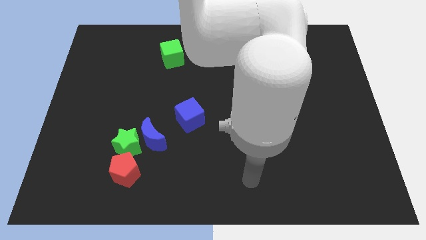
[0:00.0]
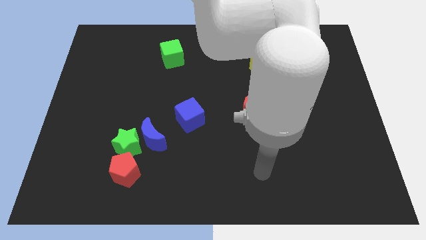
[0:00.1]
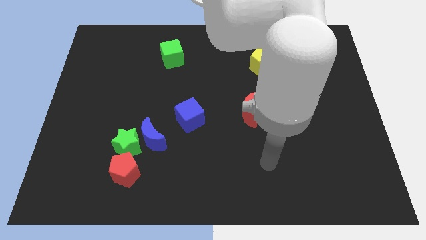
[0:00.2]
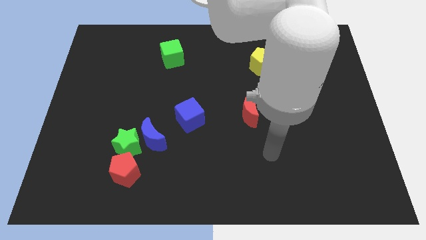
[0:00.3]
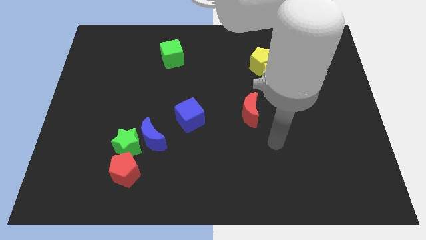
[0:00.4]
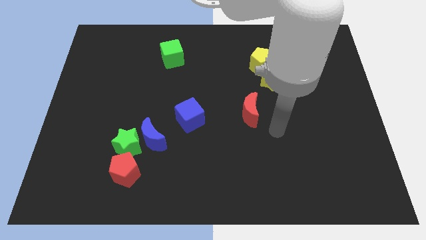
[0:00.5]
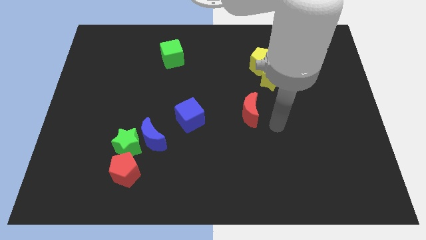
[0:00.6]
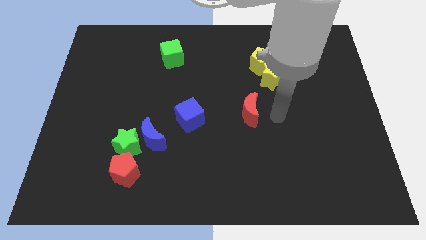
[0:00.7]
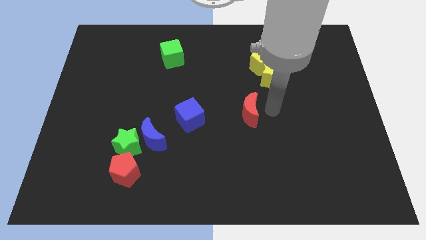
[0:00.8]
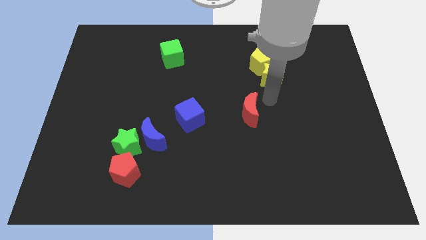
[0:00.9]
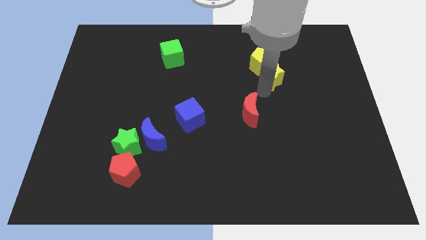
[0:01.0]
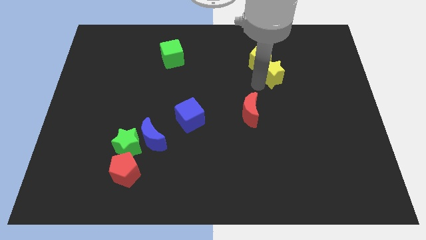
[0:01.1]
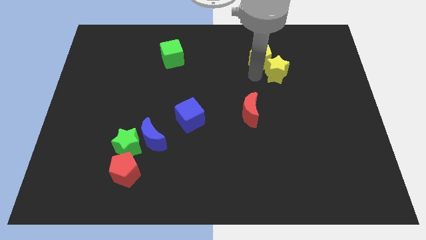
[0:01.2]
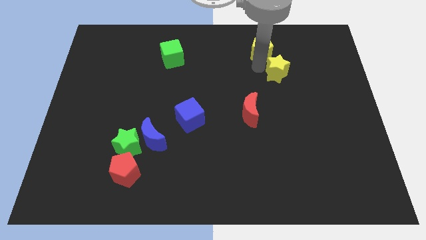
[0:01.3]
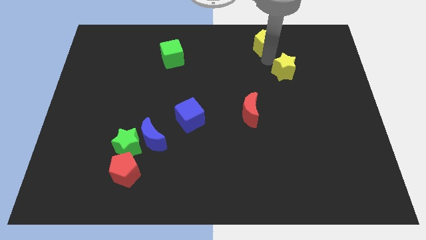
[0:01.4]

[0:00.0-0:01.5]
pull the yellow star apart from the yellow pentagon

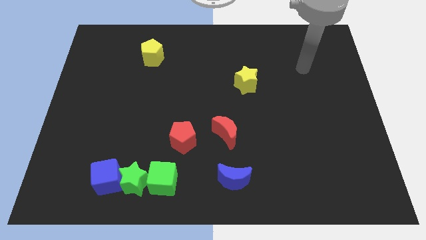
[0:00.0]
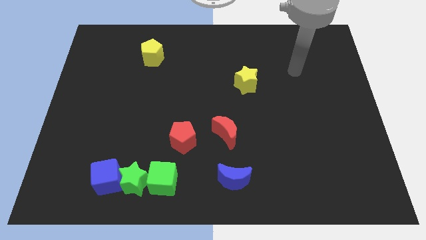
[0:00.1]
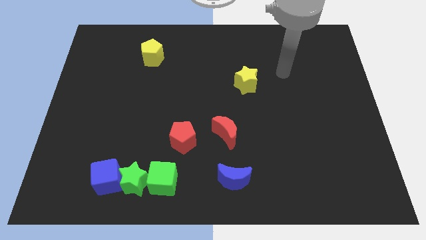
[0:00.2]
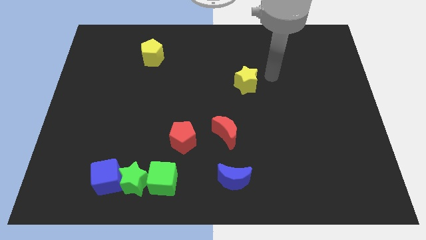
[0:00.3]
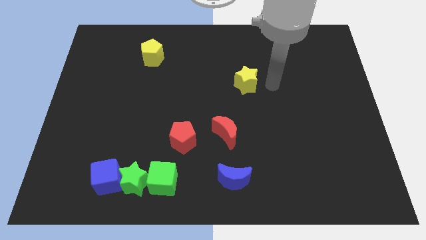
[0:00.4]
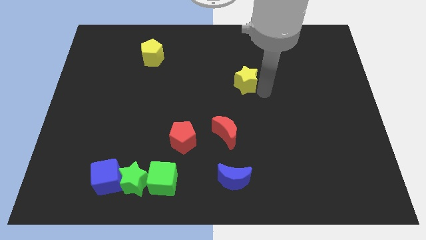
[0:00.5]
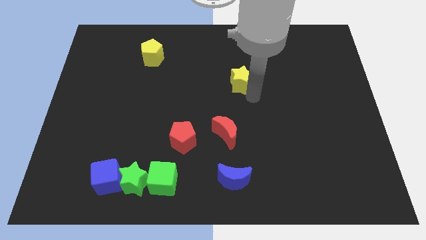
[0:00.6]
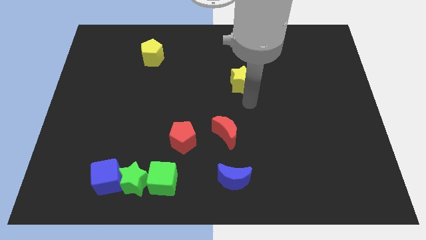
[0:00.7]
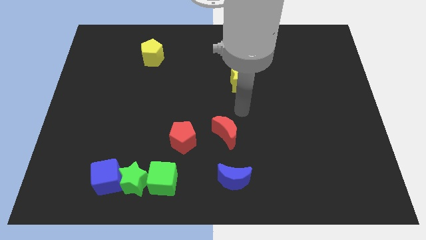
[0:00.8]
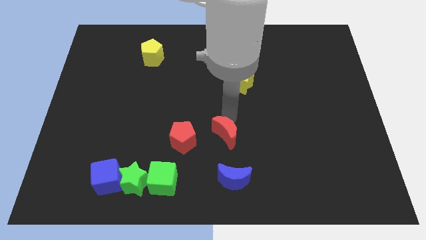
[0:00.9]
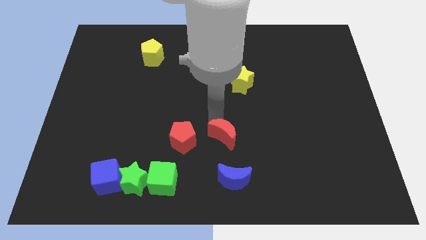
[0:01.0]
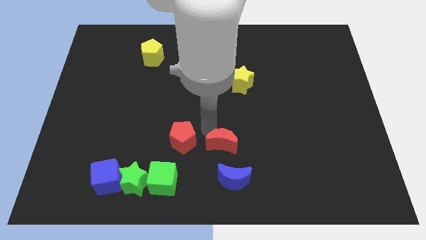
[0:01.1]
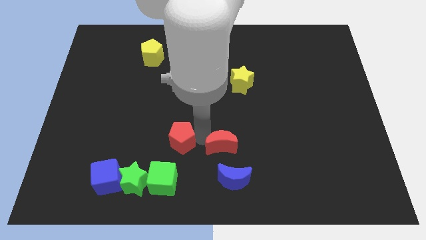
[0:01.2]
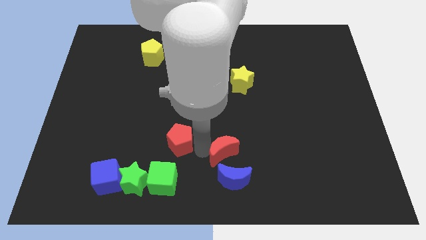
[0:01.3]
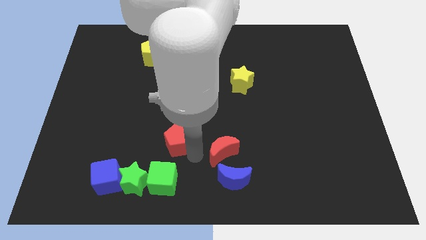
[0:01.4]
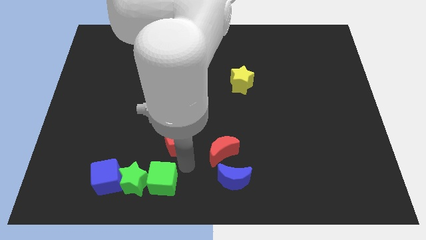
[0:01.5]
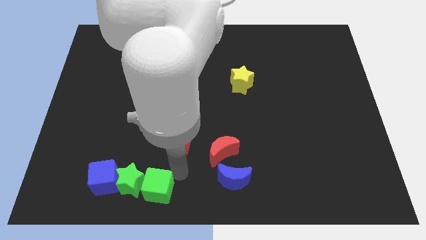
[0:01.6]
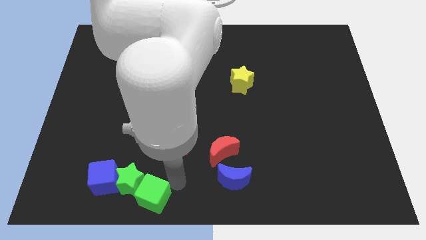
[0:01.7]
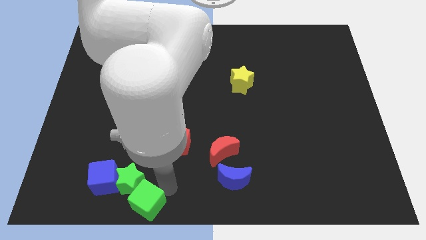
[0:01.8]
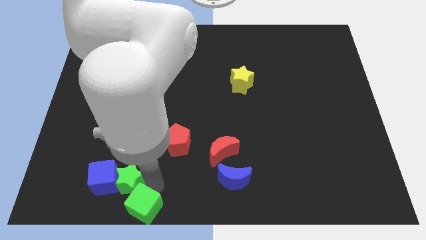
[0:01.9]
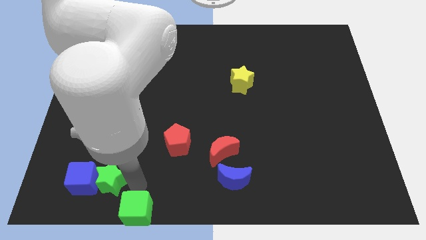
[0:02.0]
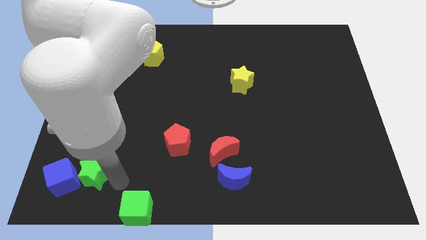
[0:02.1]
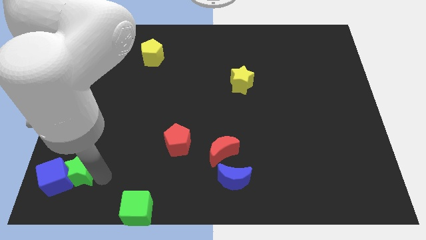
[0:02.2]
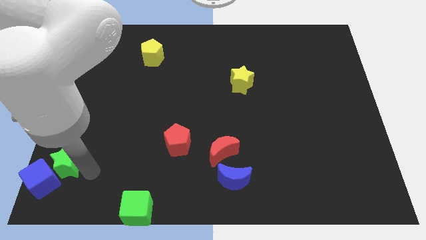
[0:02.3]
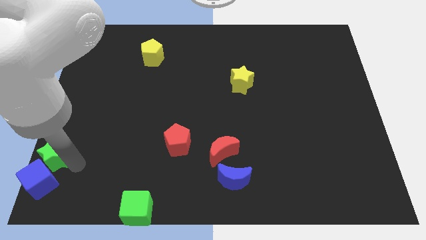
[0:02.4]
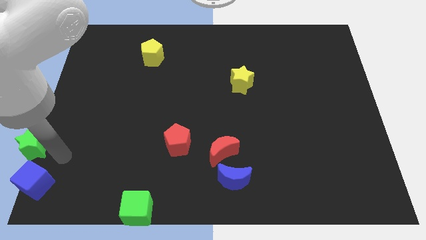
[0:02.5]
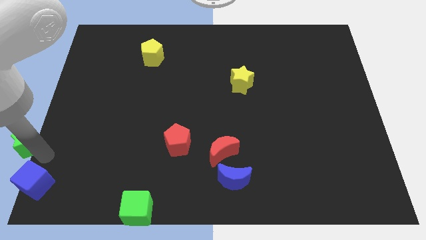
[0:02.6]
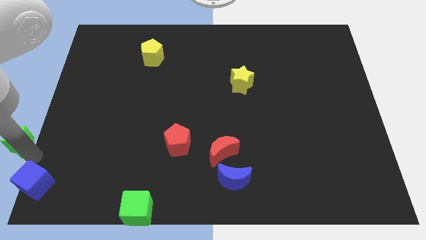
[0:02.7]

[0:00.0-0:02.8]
move the blue cube away from the green star

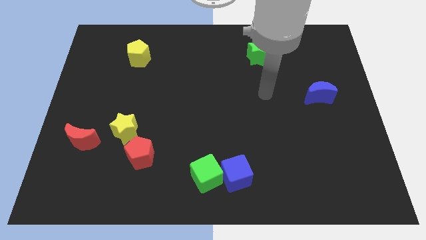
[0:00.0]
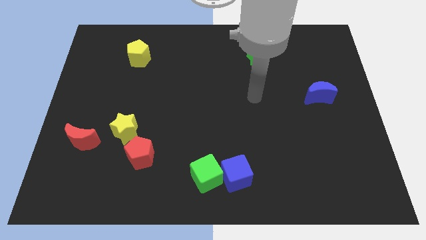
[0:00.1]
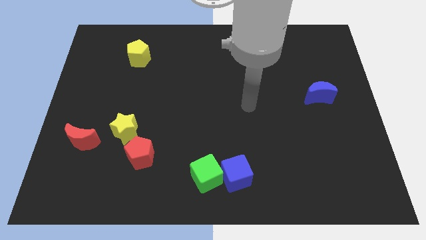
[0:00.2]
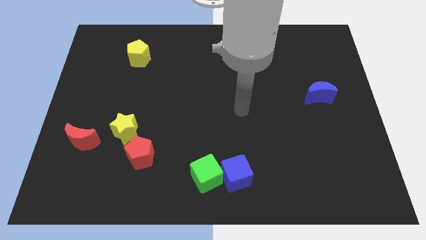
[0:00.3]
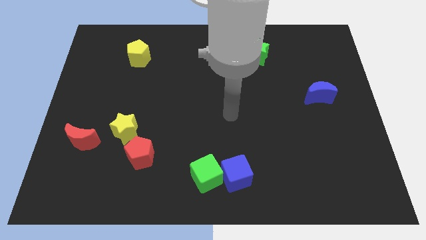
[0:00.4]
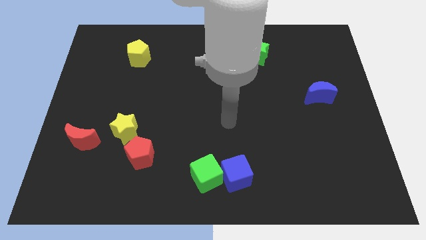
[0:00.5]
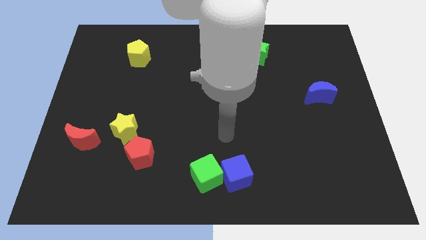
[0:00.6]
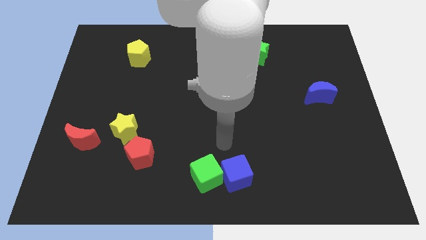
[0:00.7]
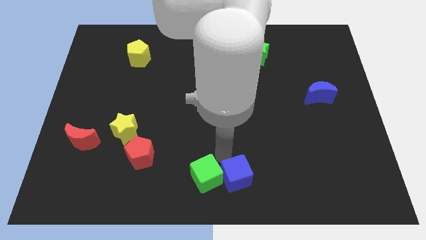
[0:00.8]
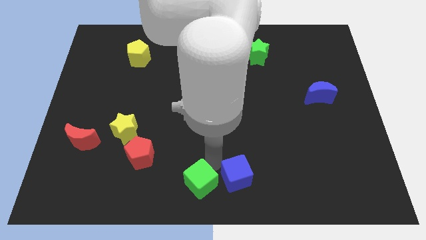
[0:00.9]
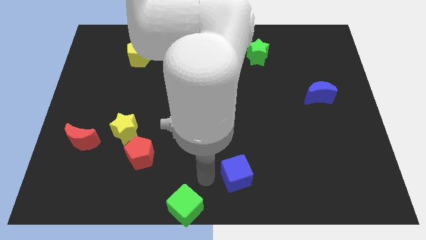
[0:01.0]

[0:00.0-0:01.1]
move the blue cube away from the green cube

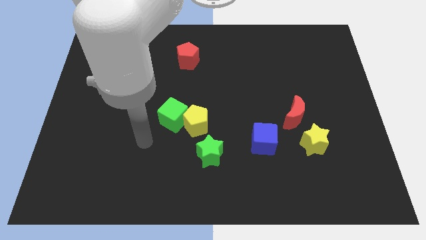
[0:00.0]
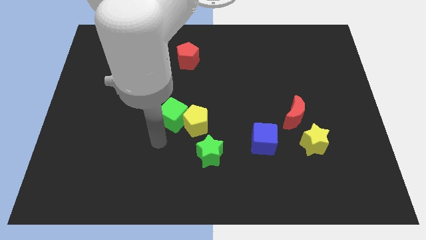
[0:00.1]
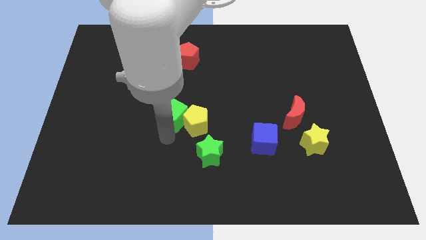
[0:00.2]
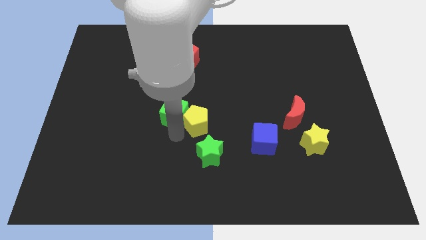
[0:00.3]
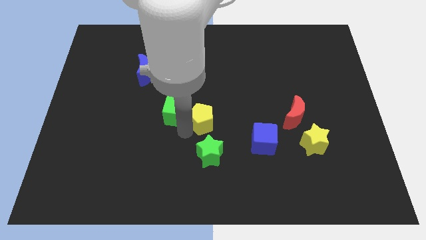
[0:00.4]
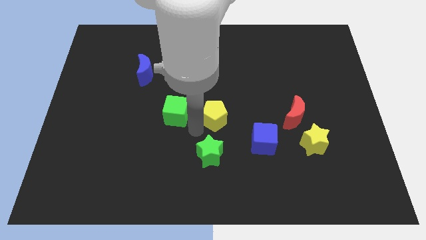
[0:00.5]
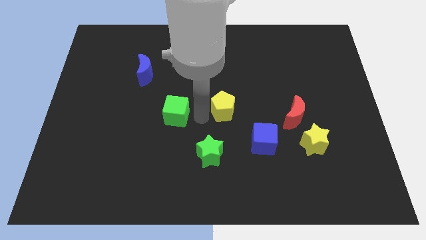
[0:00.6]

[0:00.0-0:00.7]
pull the green cube apart from the yellow pentagon

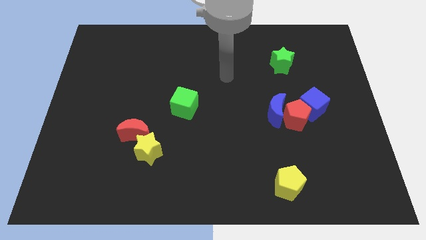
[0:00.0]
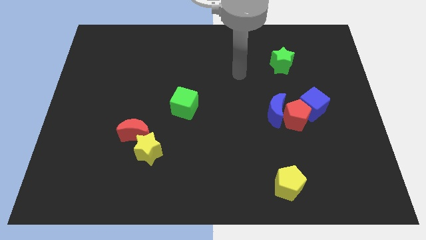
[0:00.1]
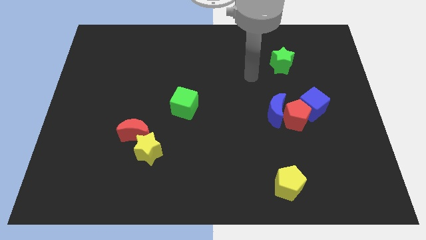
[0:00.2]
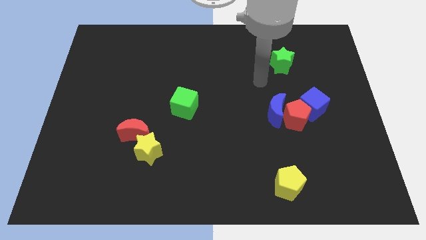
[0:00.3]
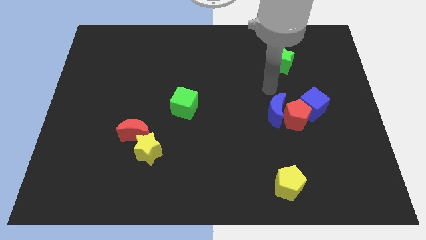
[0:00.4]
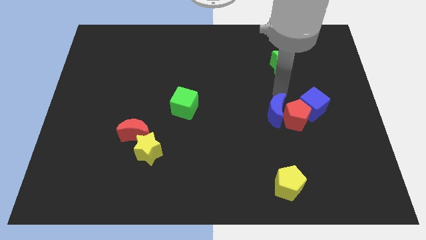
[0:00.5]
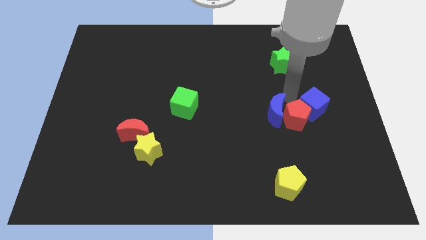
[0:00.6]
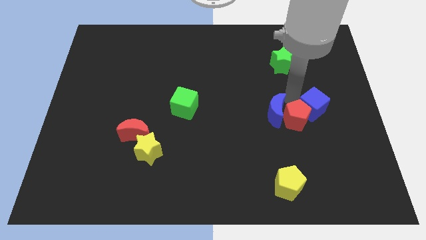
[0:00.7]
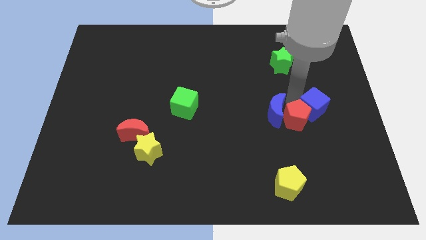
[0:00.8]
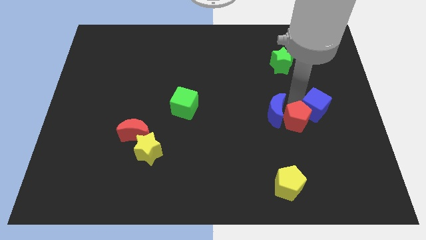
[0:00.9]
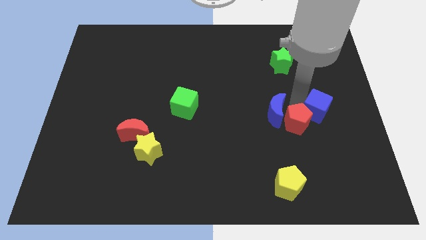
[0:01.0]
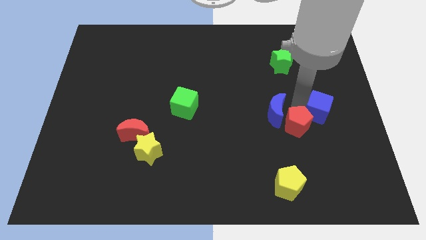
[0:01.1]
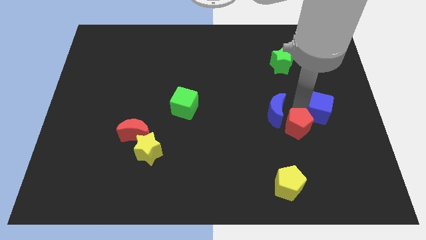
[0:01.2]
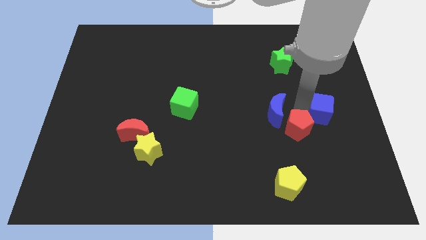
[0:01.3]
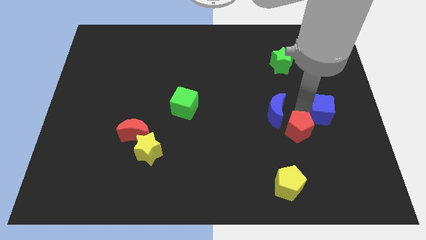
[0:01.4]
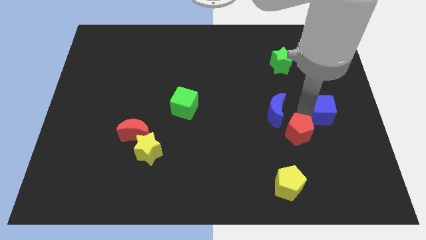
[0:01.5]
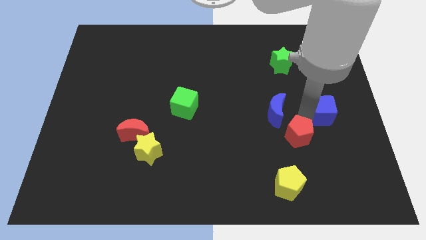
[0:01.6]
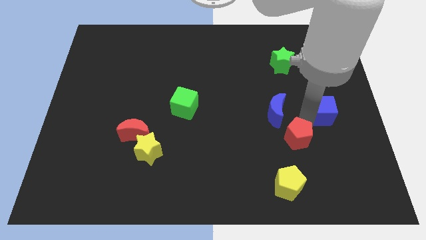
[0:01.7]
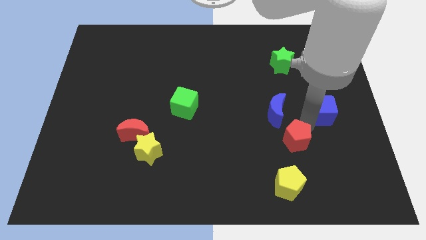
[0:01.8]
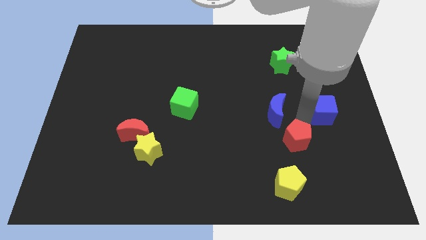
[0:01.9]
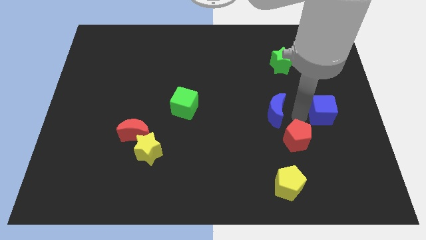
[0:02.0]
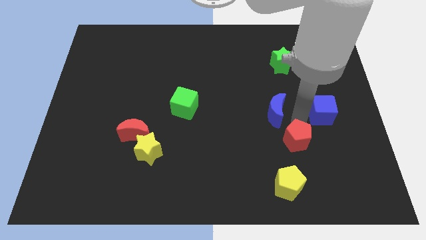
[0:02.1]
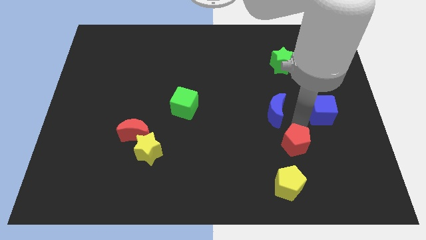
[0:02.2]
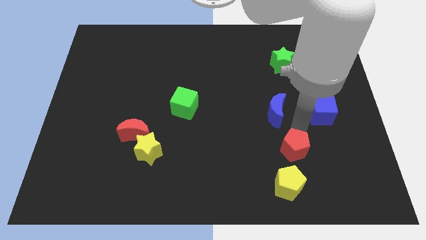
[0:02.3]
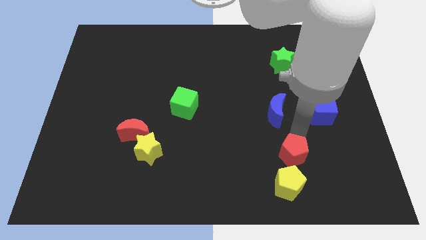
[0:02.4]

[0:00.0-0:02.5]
move the red pentagon away from the blue moon and blue cube

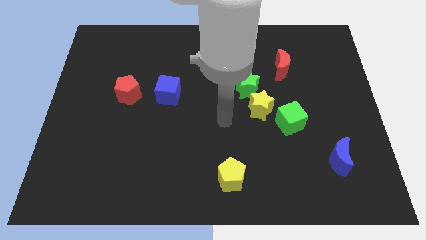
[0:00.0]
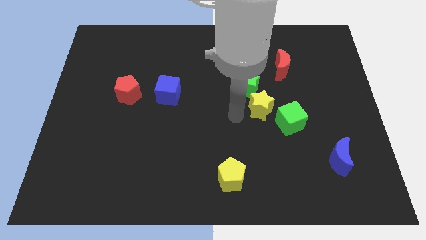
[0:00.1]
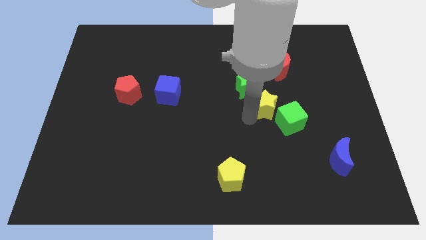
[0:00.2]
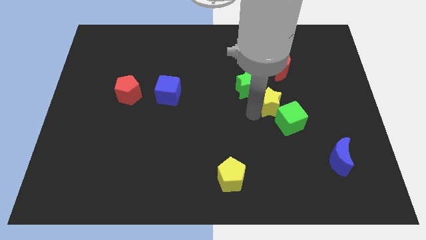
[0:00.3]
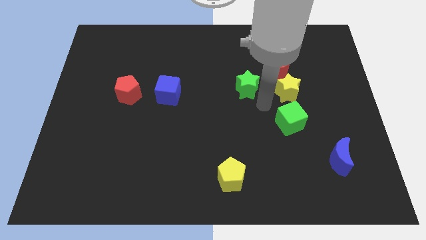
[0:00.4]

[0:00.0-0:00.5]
move the green star away from the yellow star

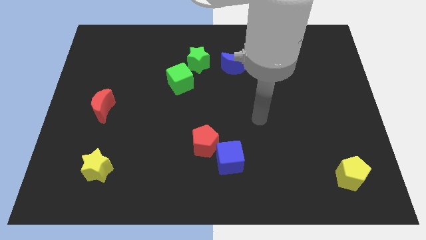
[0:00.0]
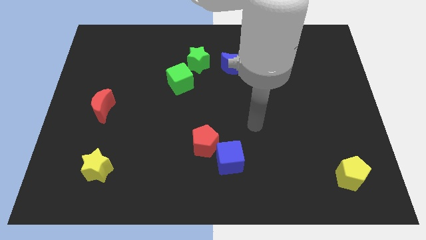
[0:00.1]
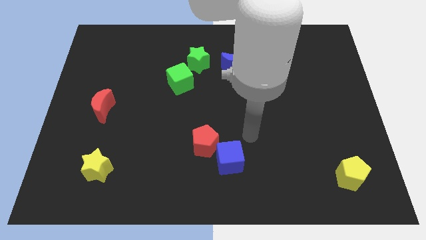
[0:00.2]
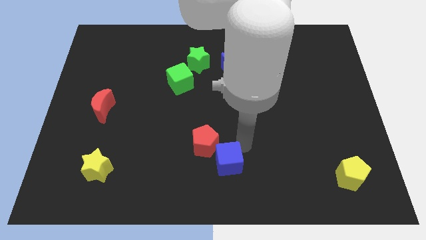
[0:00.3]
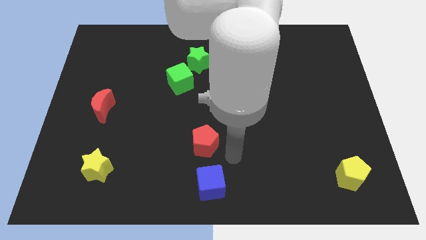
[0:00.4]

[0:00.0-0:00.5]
pull the red pentagon apart from the blue cube
